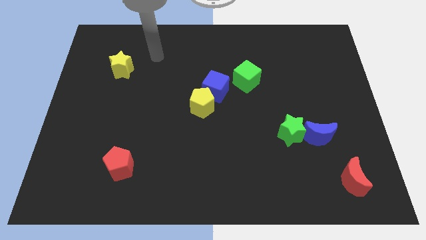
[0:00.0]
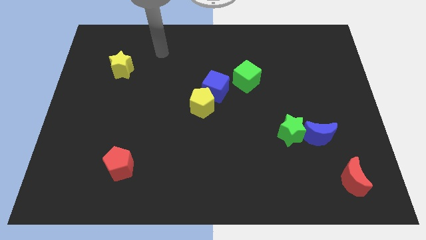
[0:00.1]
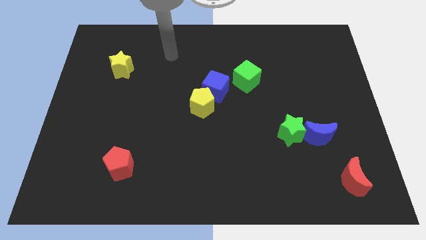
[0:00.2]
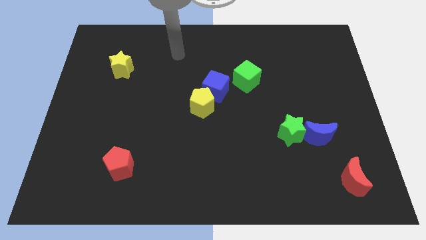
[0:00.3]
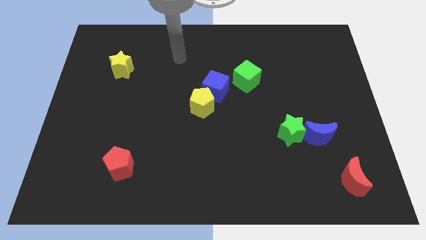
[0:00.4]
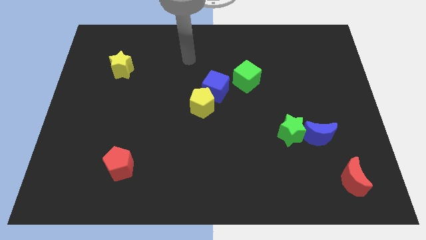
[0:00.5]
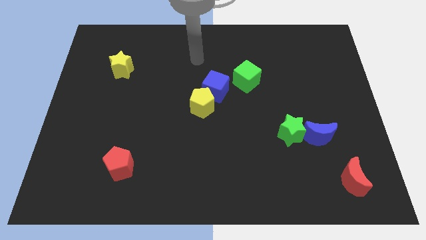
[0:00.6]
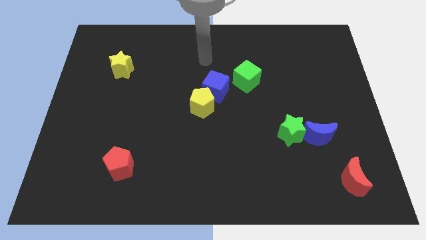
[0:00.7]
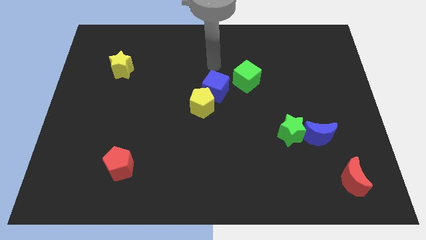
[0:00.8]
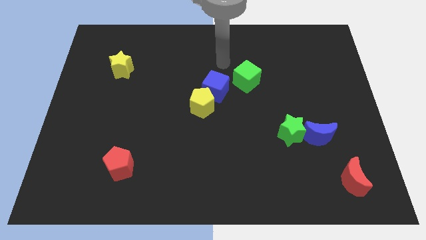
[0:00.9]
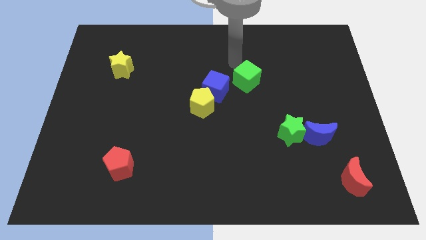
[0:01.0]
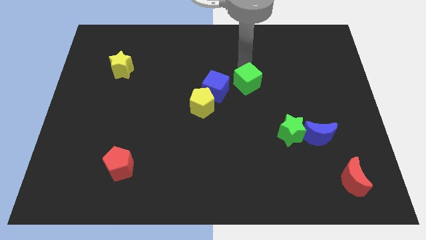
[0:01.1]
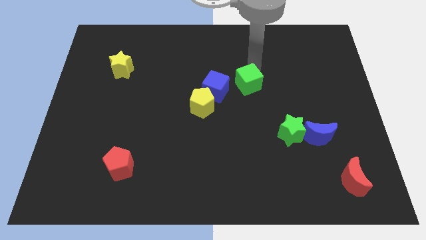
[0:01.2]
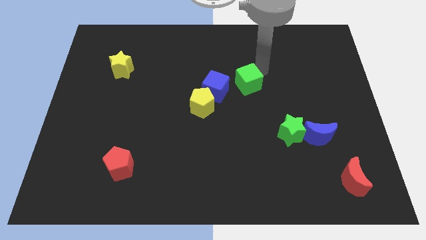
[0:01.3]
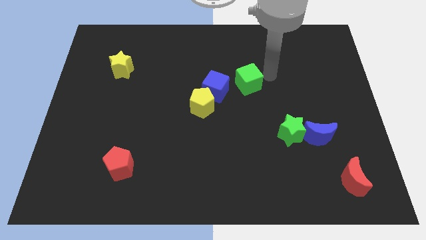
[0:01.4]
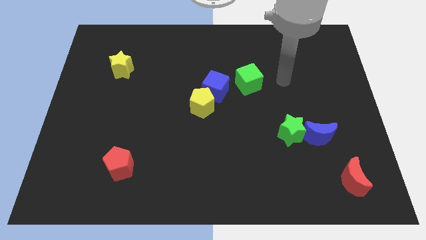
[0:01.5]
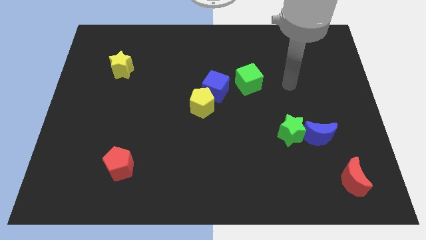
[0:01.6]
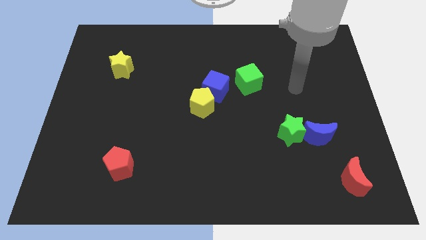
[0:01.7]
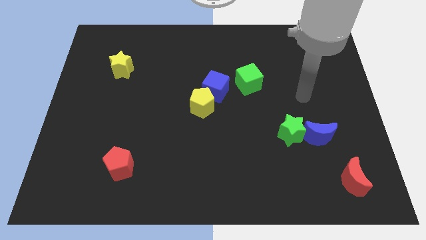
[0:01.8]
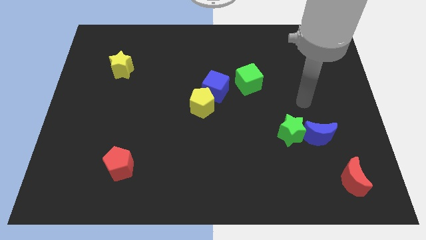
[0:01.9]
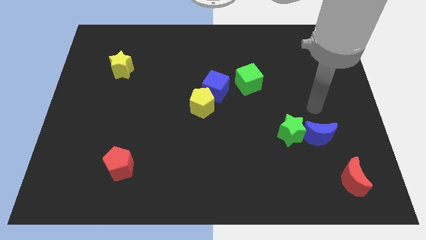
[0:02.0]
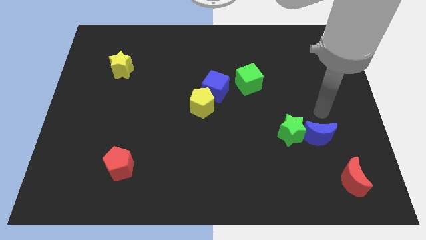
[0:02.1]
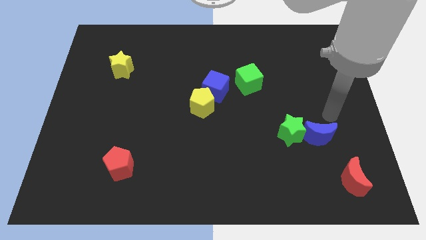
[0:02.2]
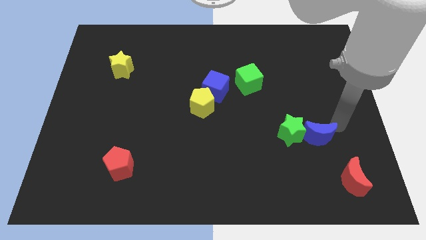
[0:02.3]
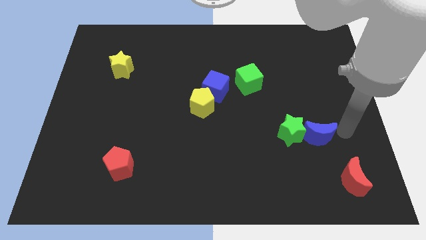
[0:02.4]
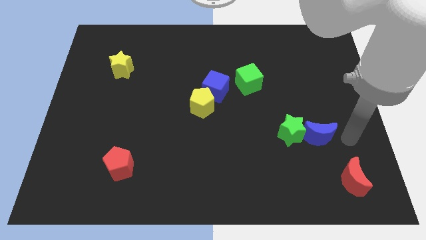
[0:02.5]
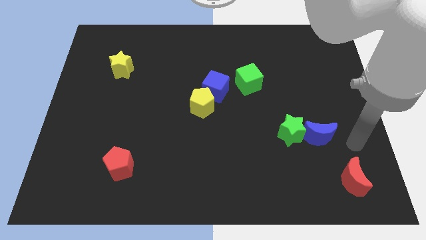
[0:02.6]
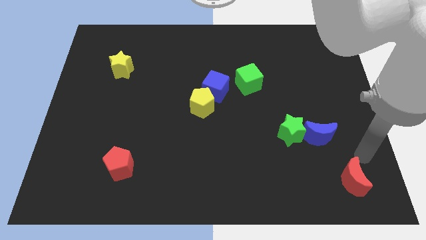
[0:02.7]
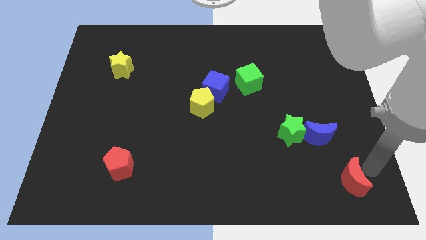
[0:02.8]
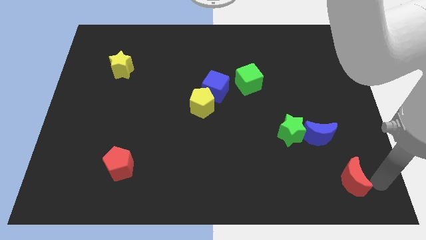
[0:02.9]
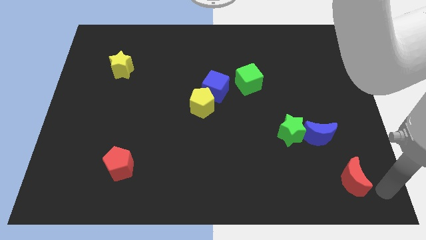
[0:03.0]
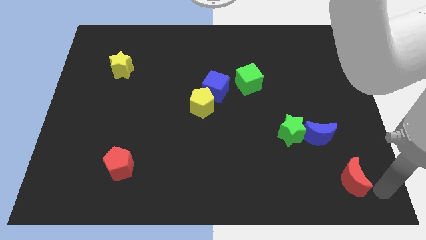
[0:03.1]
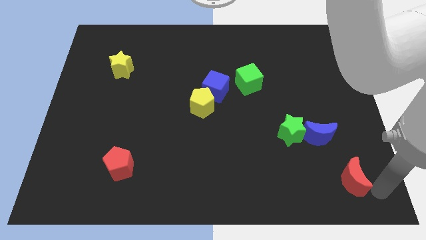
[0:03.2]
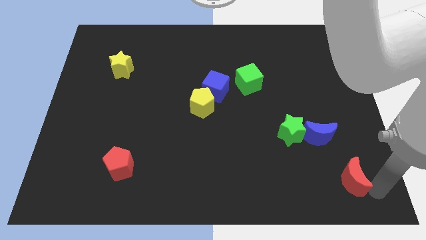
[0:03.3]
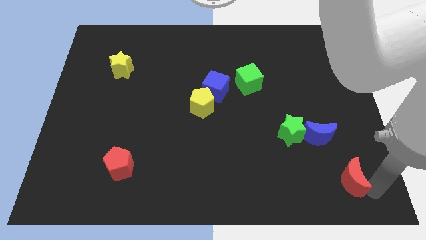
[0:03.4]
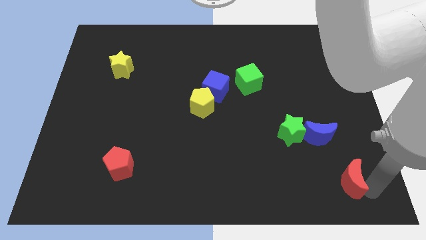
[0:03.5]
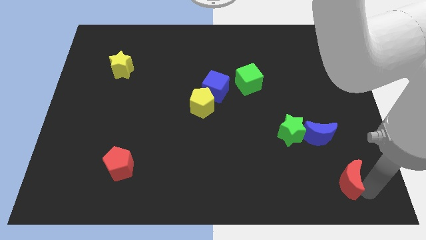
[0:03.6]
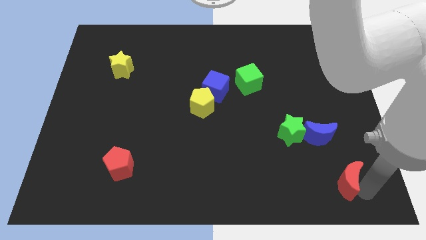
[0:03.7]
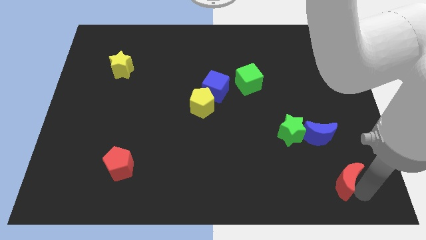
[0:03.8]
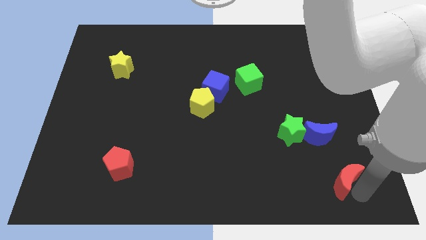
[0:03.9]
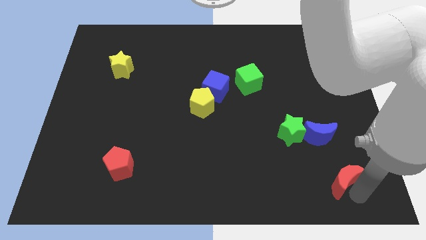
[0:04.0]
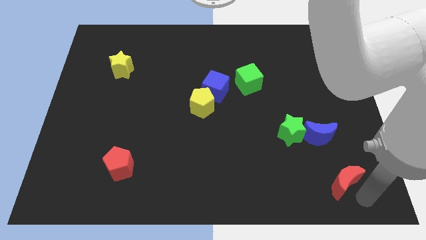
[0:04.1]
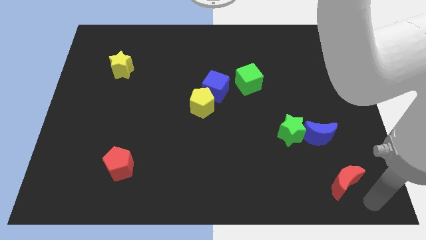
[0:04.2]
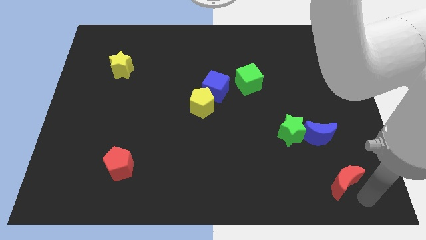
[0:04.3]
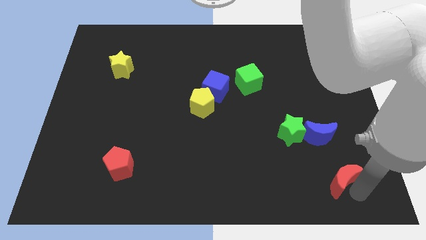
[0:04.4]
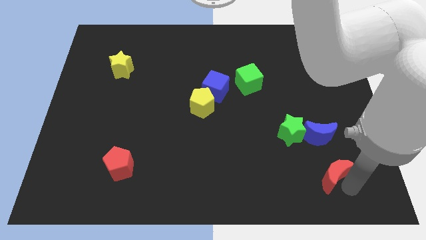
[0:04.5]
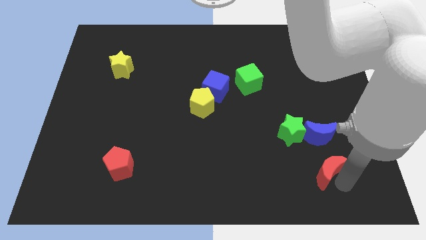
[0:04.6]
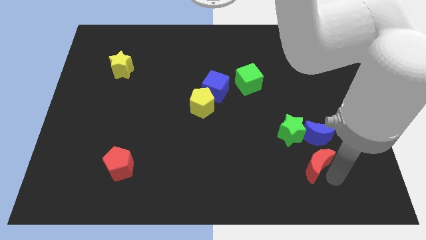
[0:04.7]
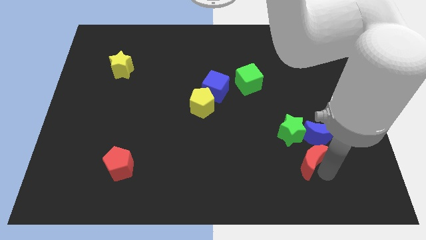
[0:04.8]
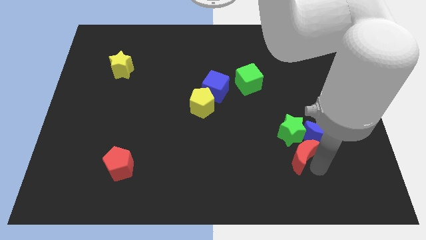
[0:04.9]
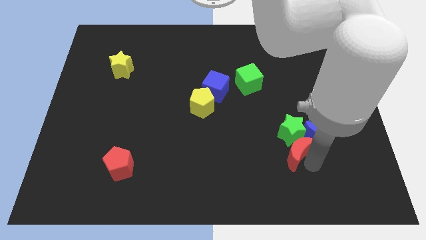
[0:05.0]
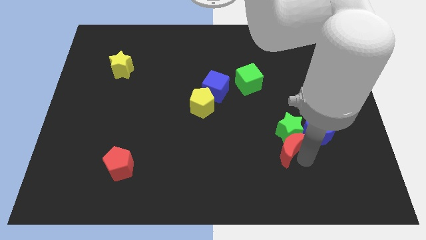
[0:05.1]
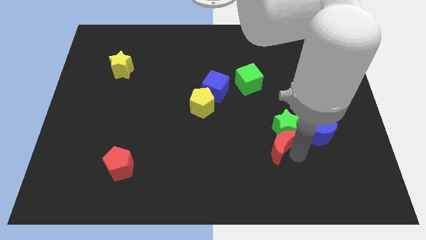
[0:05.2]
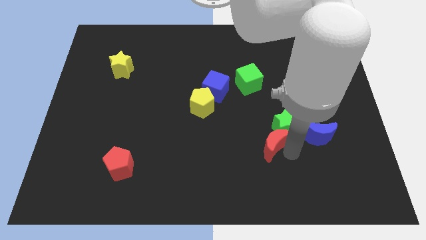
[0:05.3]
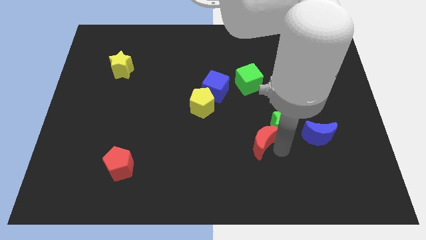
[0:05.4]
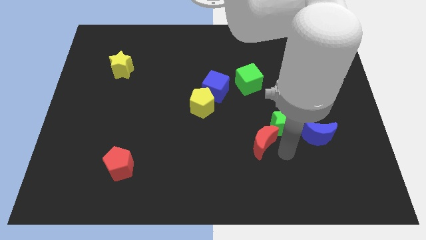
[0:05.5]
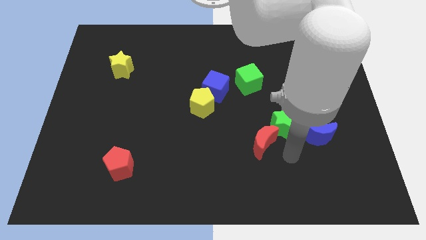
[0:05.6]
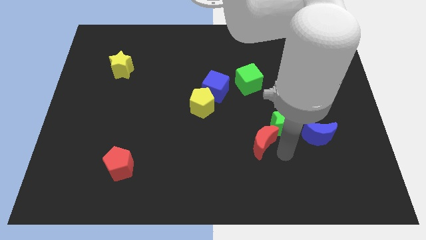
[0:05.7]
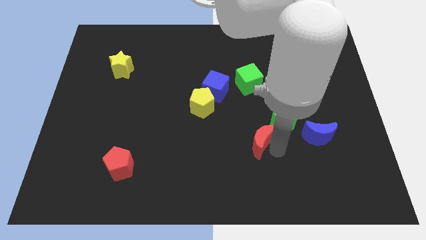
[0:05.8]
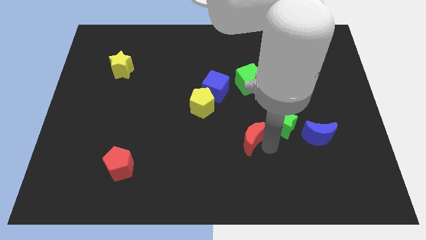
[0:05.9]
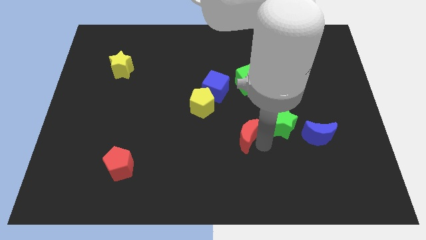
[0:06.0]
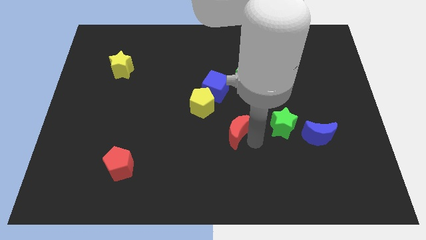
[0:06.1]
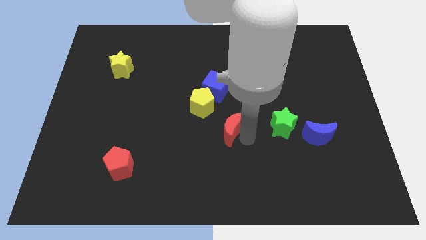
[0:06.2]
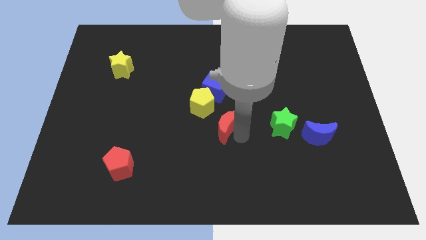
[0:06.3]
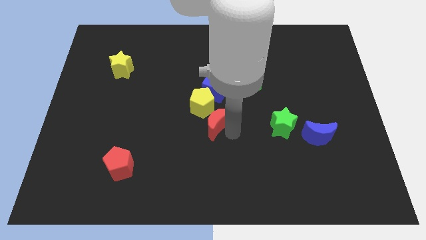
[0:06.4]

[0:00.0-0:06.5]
put the red moon next to the yellow pentagon
